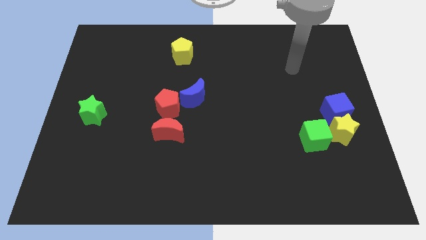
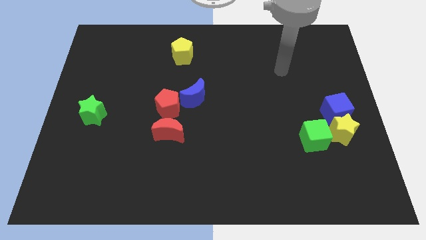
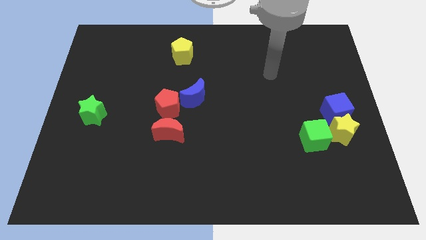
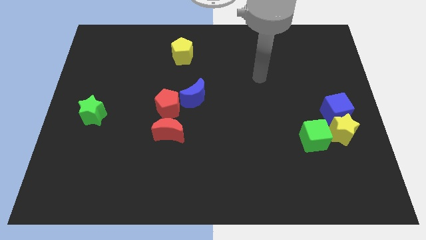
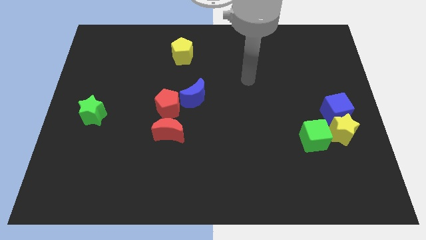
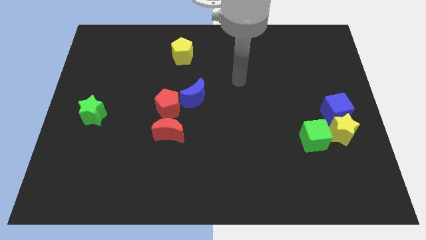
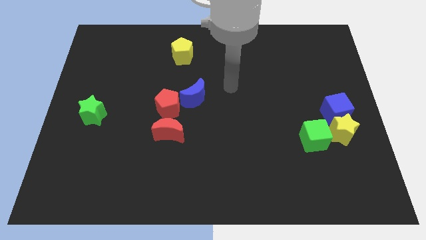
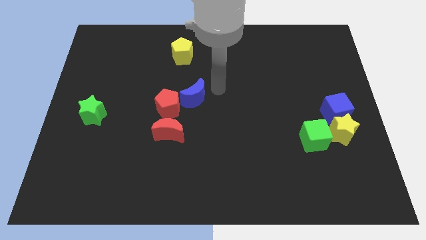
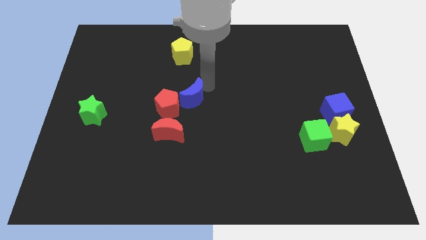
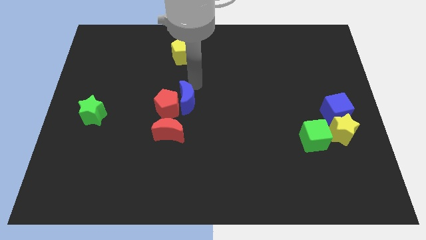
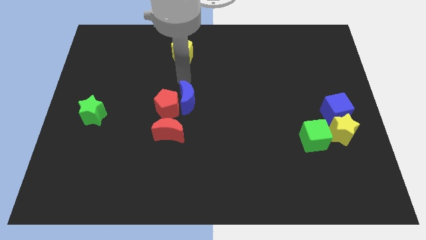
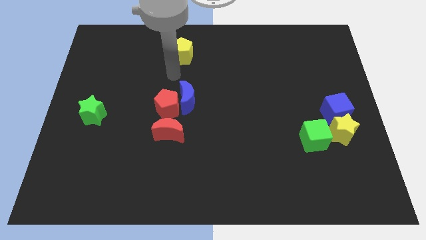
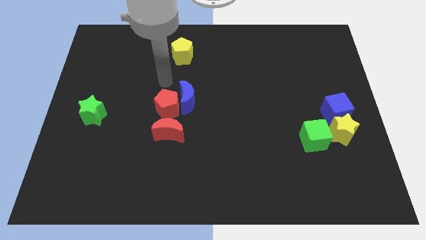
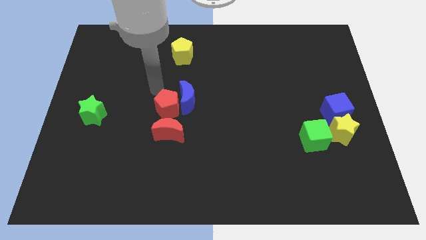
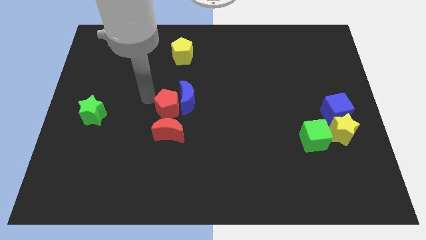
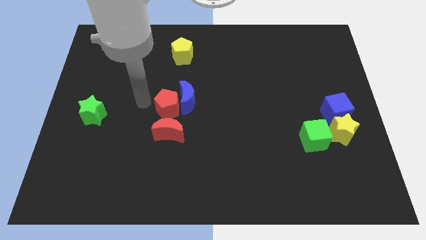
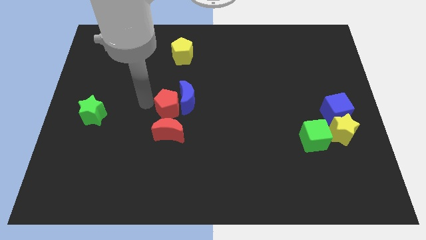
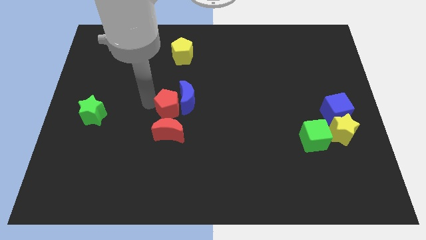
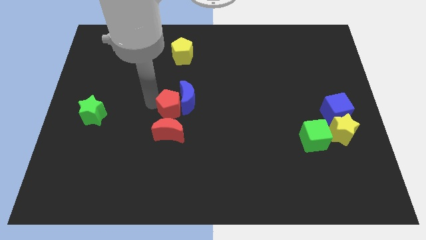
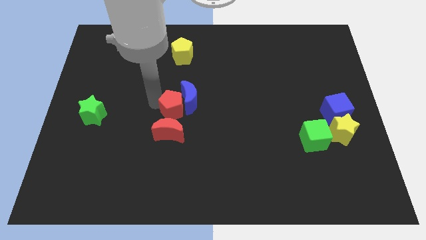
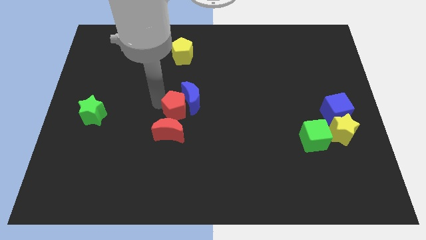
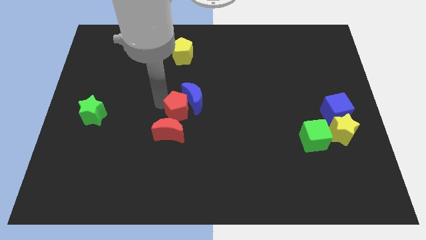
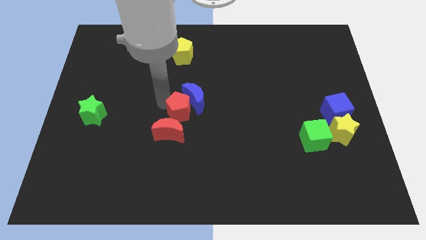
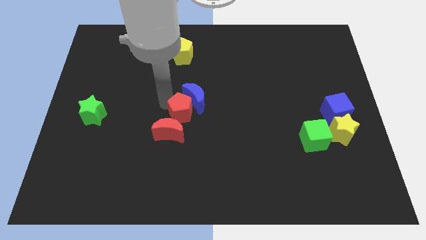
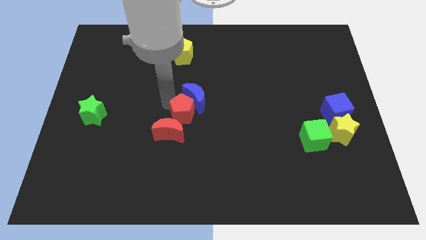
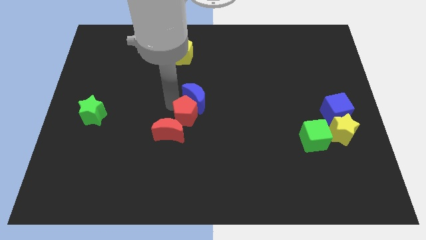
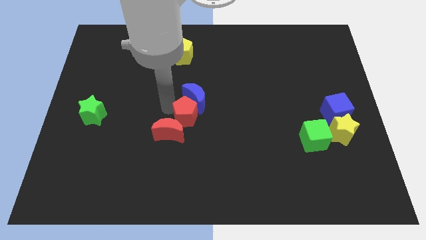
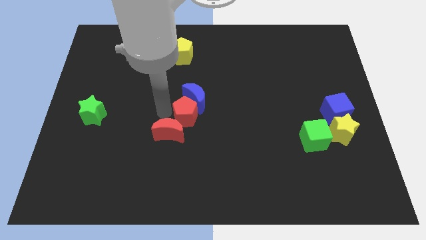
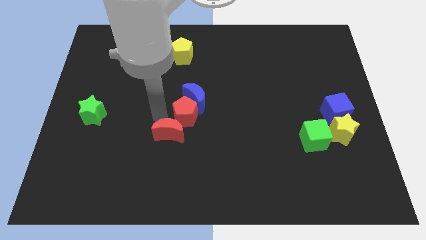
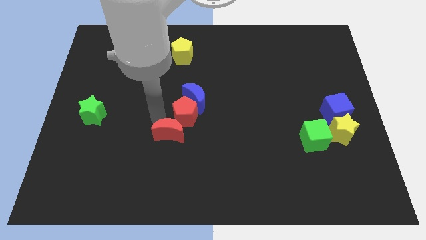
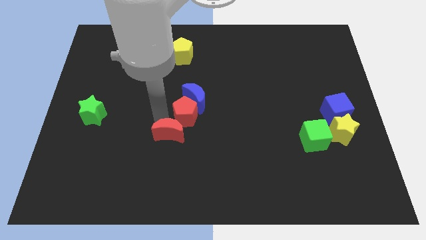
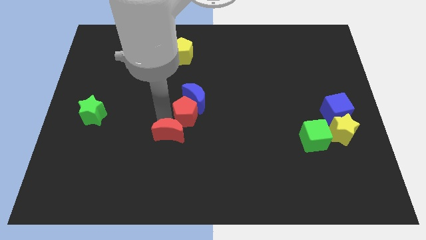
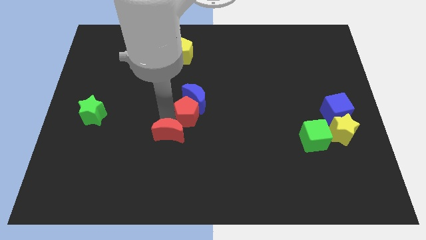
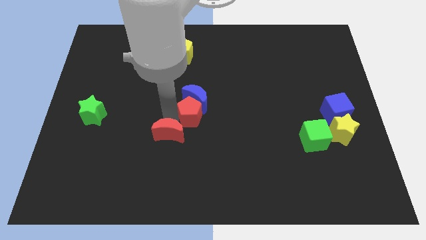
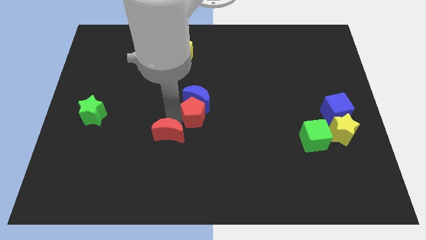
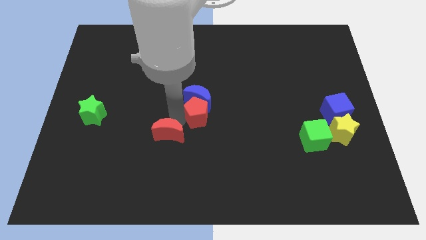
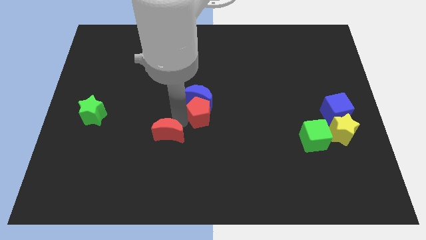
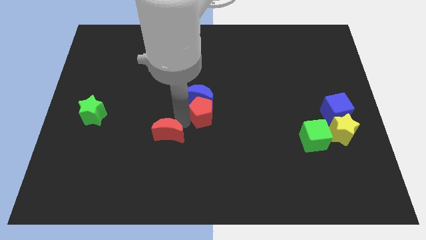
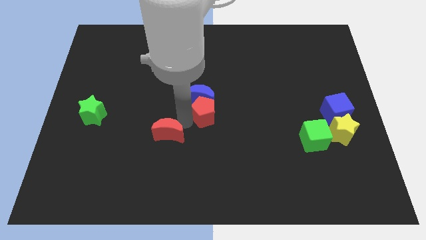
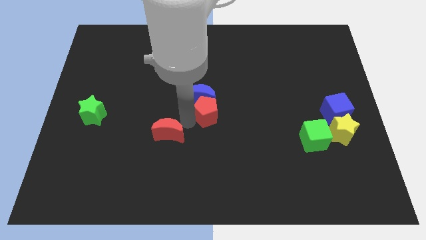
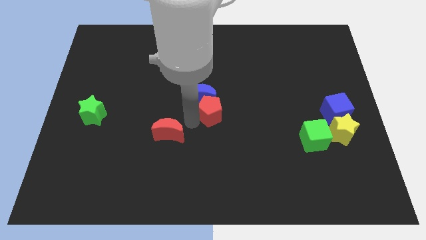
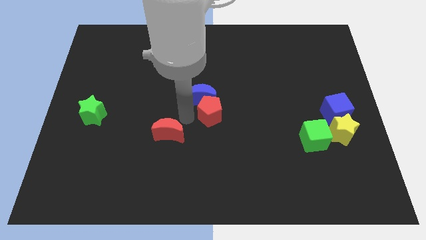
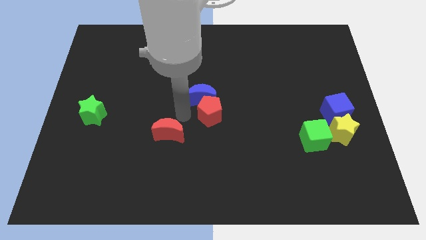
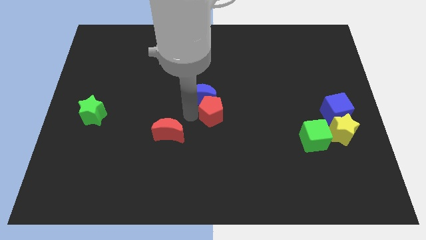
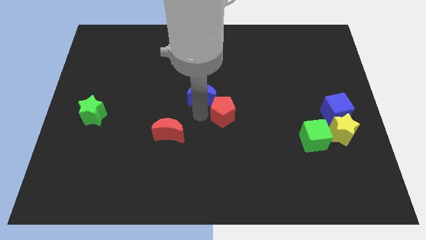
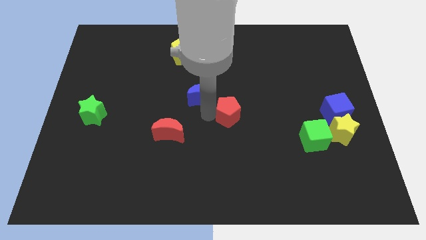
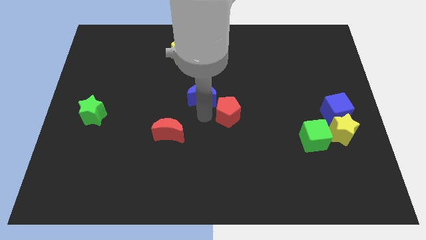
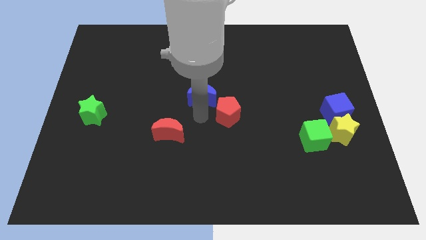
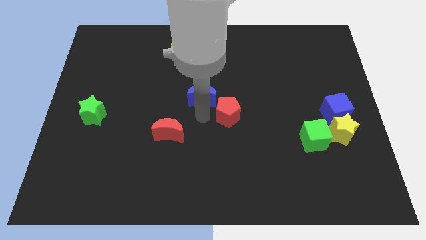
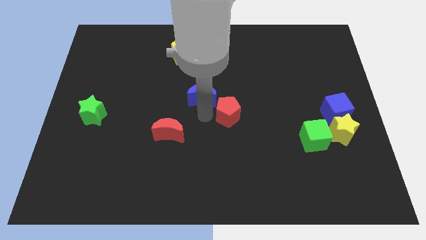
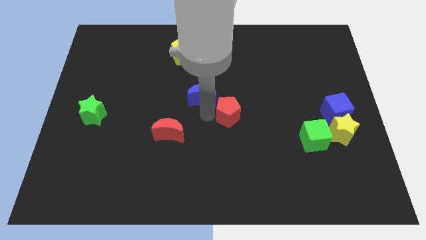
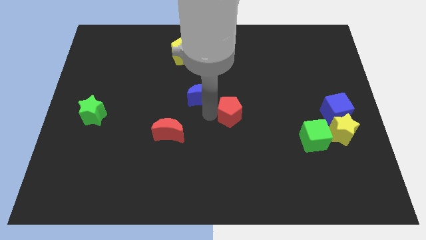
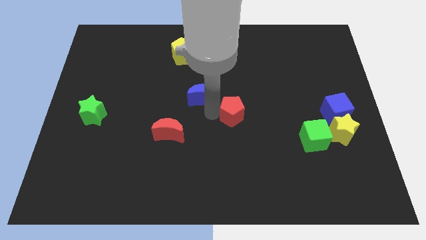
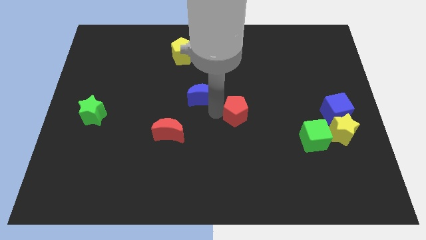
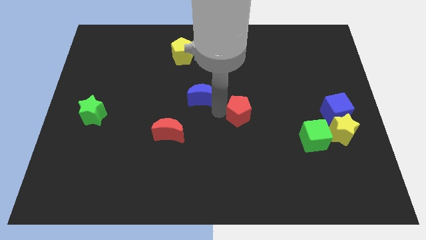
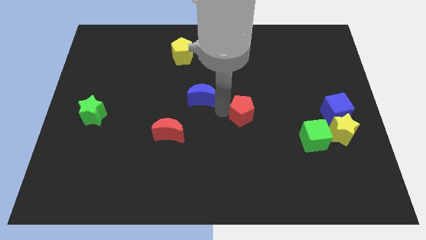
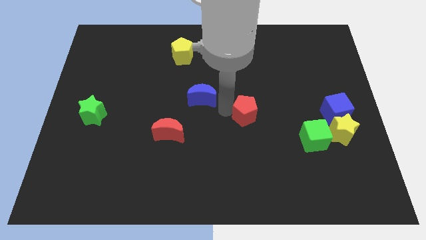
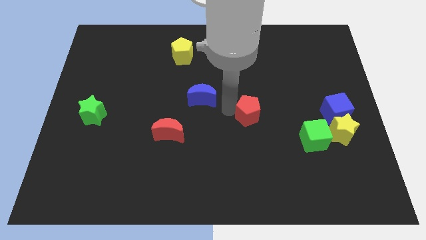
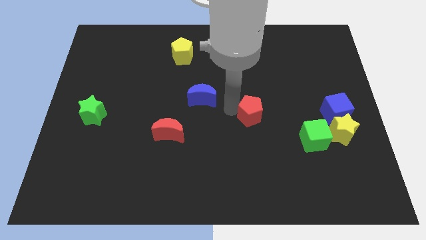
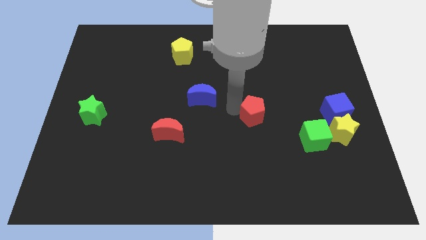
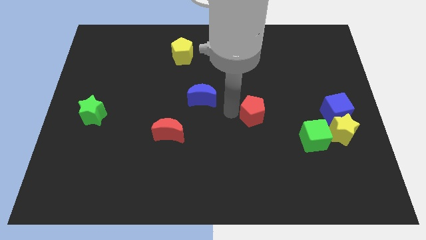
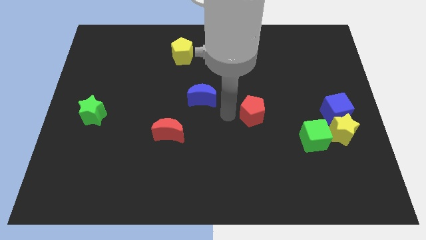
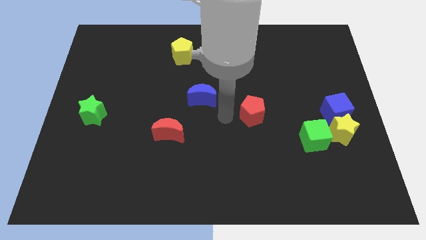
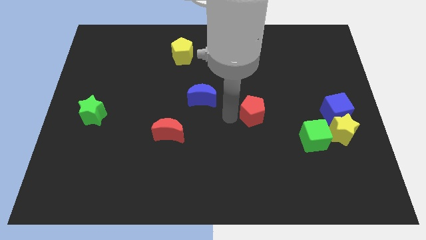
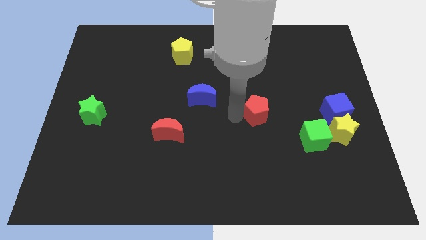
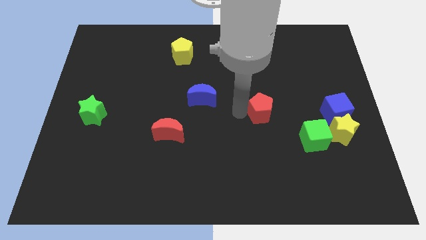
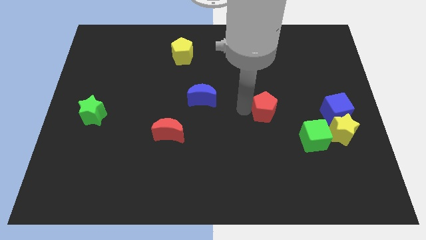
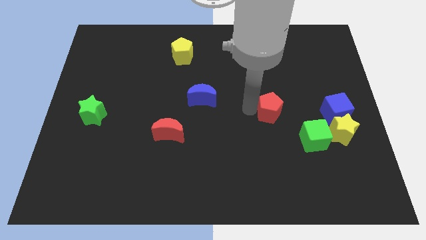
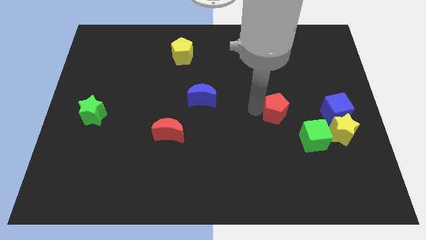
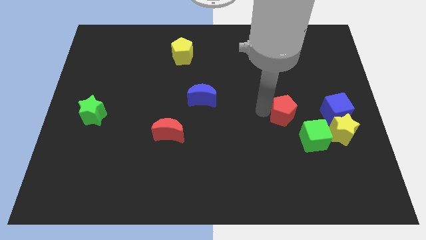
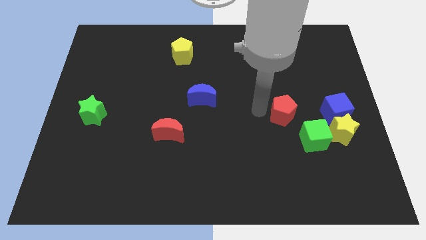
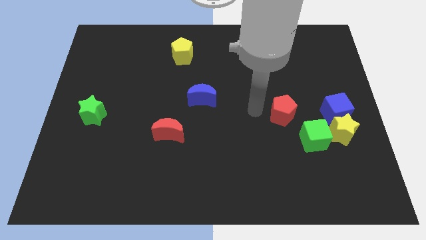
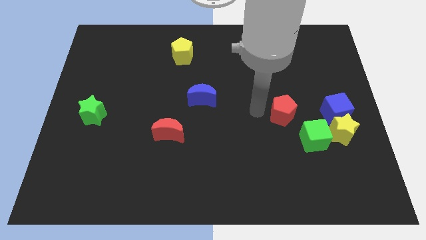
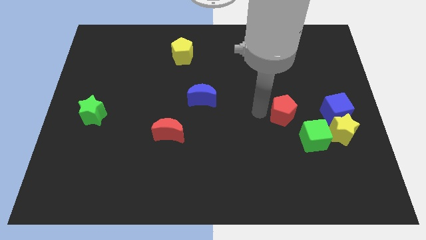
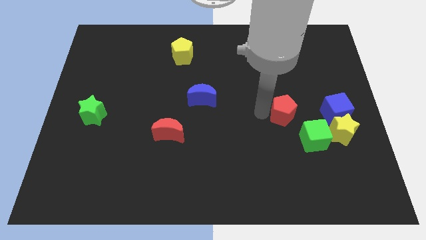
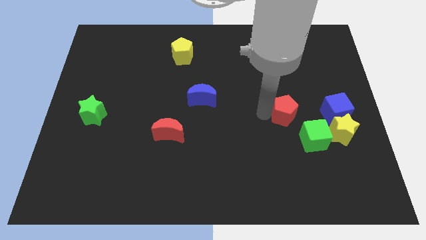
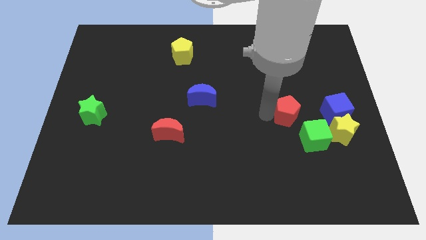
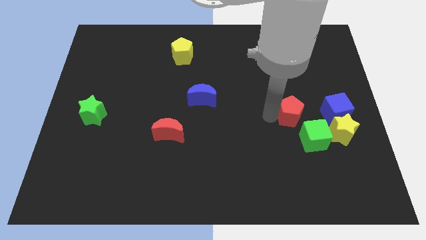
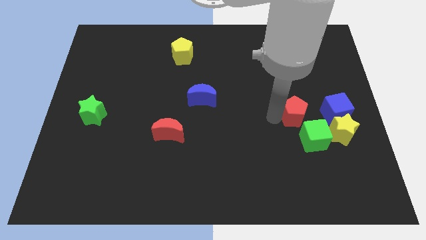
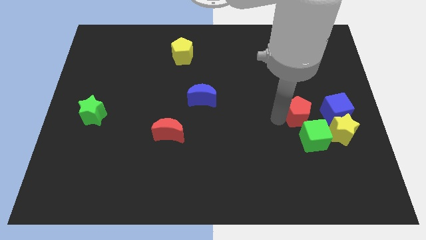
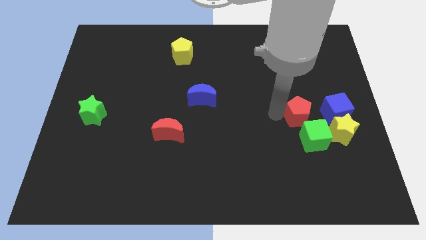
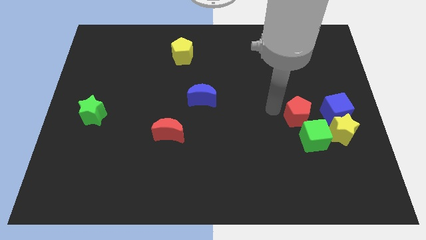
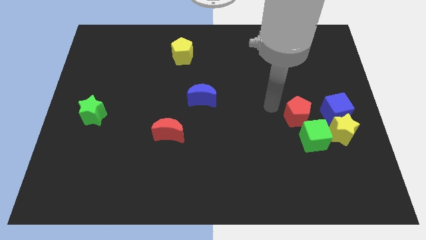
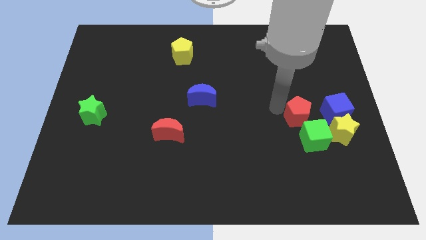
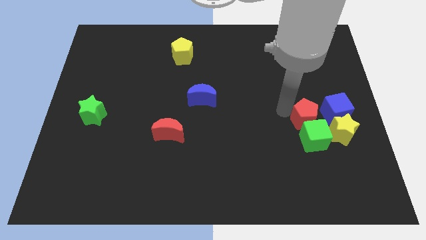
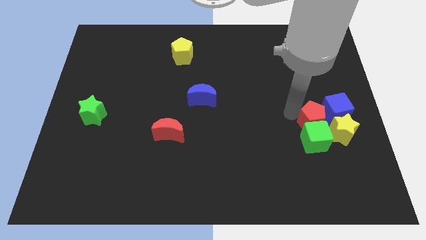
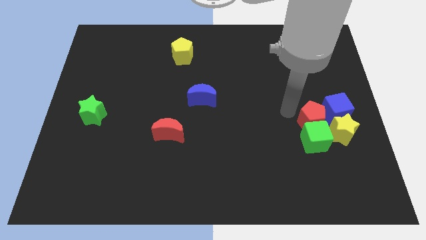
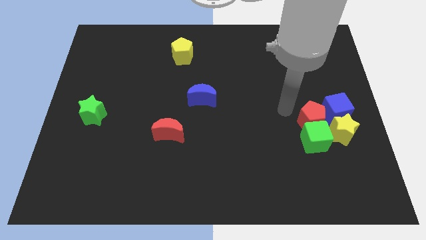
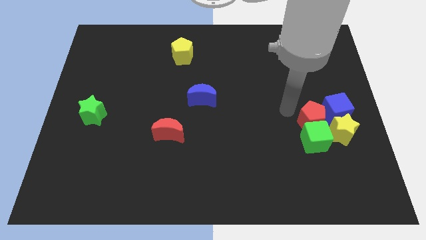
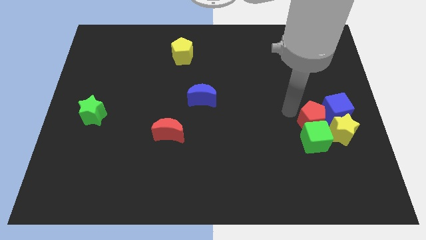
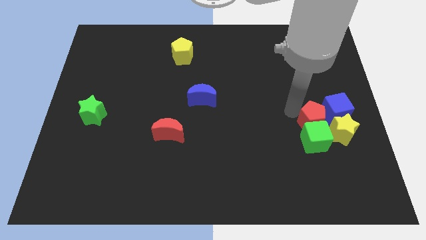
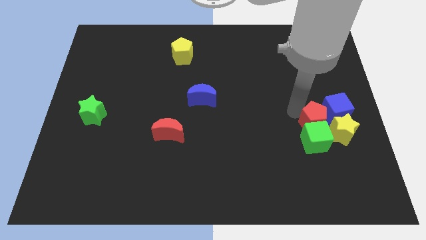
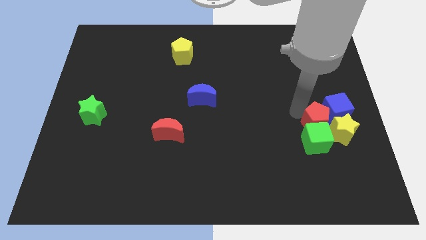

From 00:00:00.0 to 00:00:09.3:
push the red pentagon next to the yellow star
